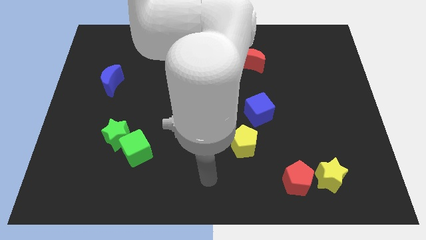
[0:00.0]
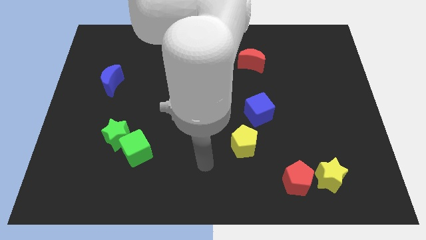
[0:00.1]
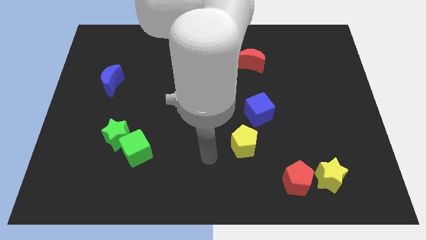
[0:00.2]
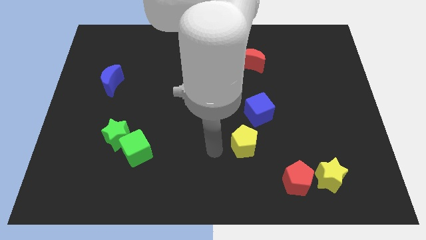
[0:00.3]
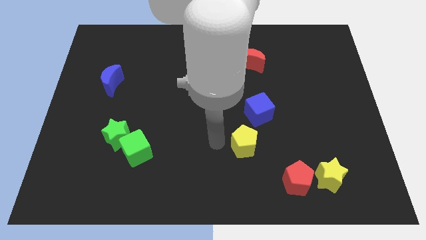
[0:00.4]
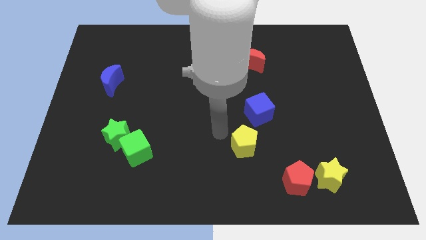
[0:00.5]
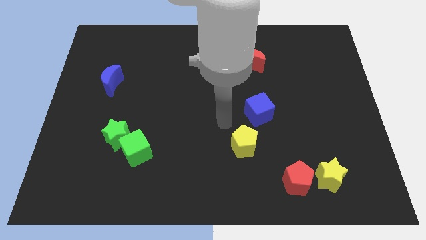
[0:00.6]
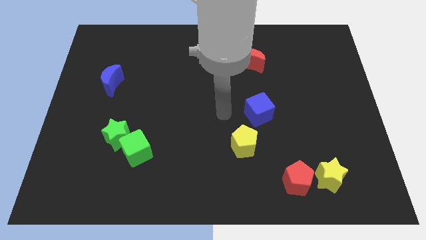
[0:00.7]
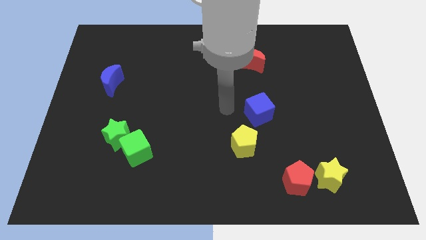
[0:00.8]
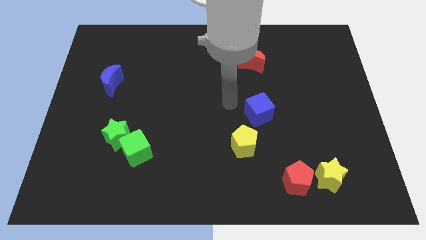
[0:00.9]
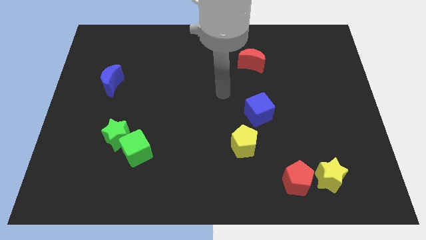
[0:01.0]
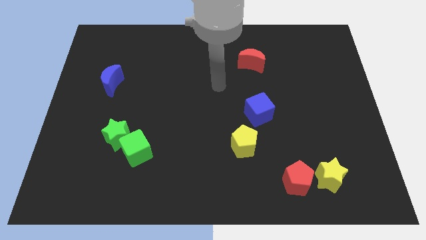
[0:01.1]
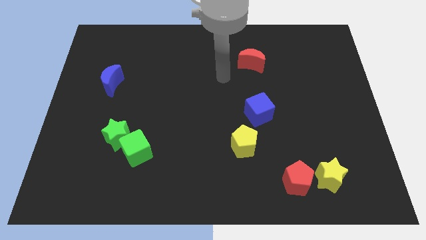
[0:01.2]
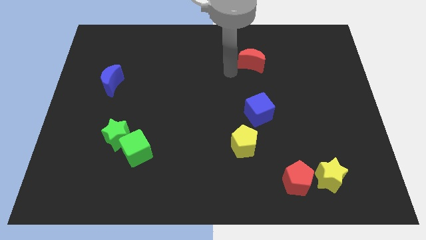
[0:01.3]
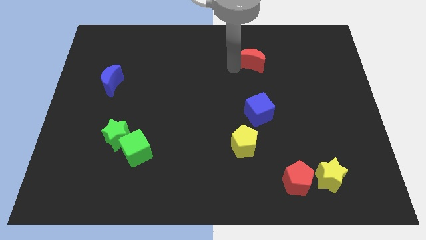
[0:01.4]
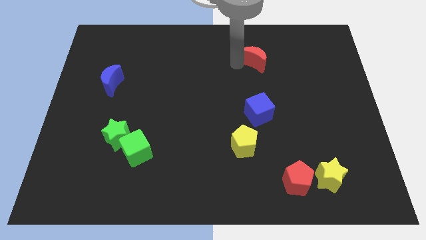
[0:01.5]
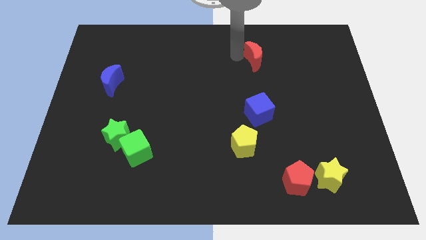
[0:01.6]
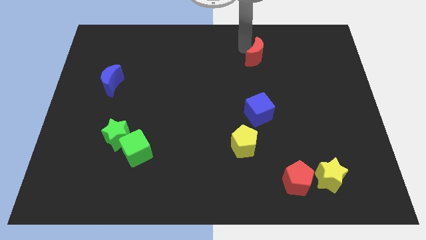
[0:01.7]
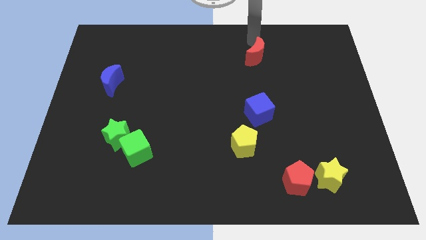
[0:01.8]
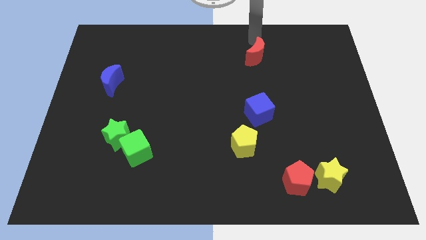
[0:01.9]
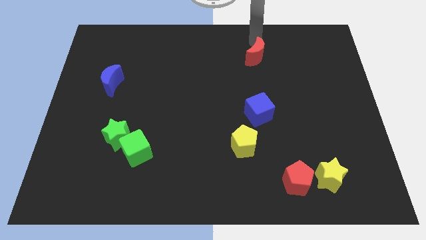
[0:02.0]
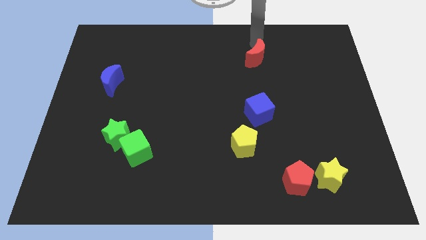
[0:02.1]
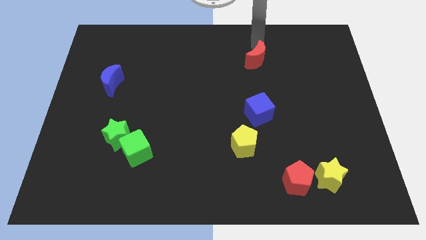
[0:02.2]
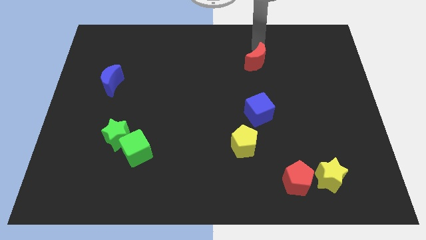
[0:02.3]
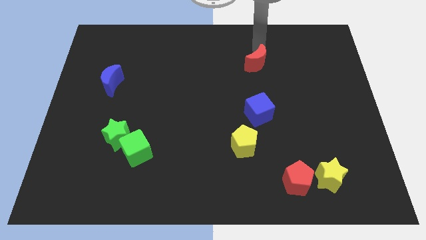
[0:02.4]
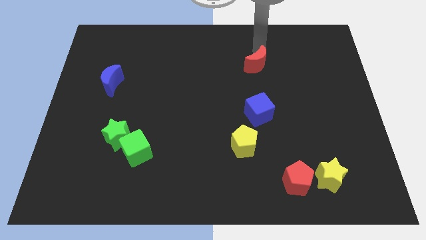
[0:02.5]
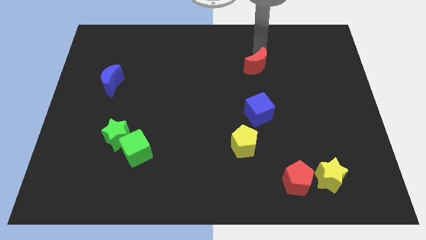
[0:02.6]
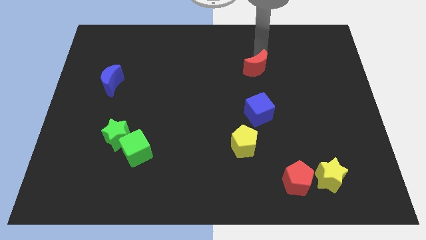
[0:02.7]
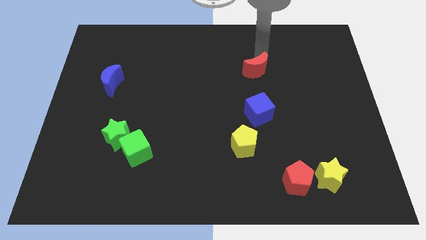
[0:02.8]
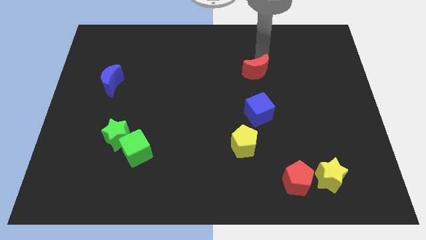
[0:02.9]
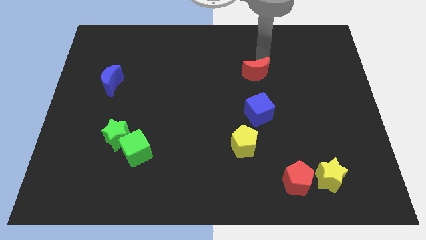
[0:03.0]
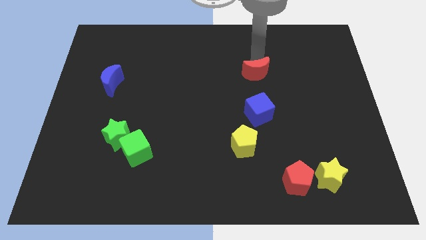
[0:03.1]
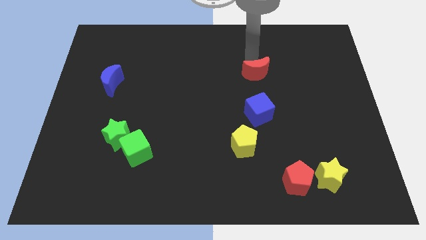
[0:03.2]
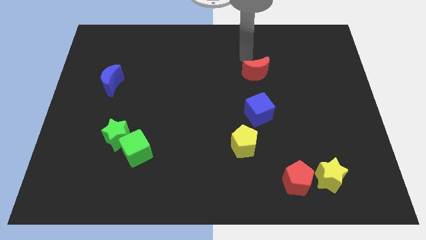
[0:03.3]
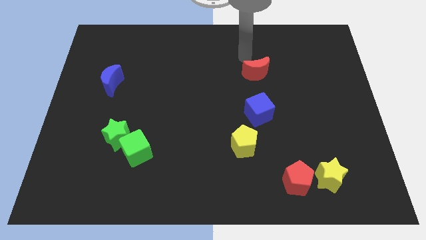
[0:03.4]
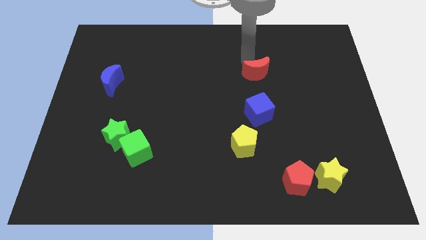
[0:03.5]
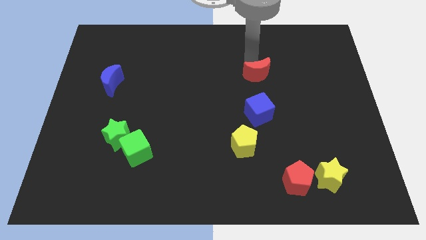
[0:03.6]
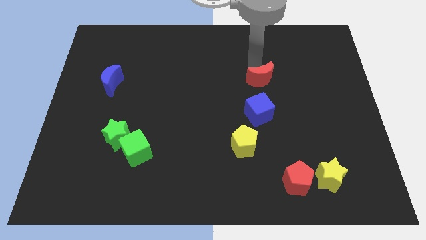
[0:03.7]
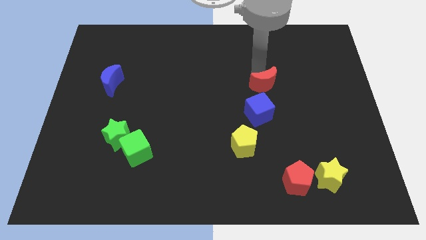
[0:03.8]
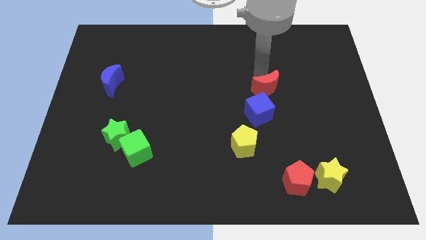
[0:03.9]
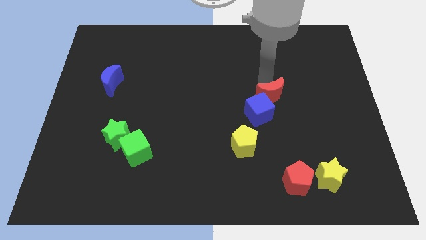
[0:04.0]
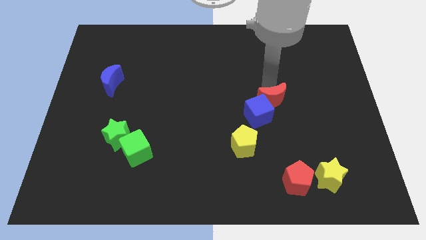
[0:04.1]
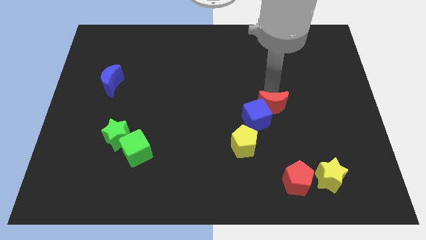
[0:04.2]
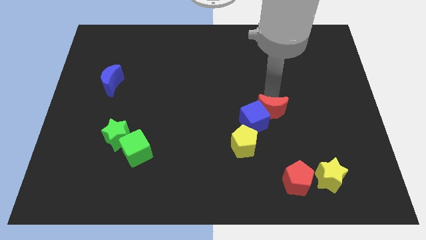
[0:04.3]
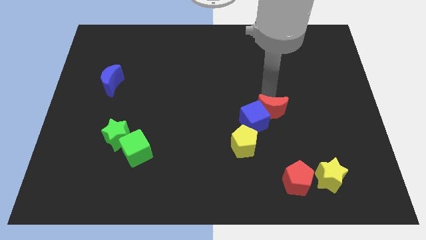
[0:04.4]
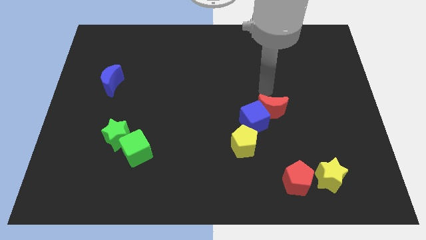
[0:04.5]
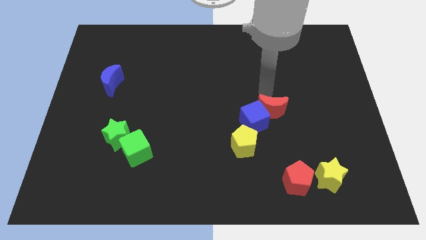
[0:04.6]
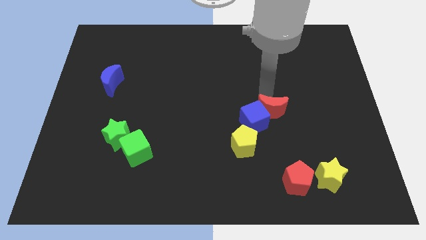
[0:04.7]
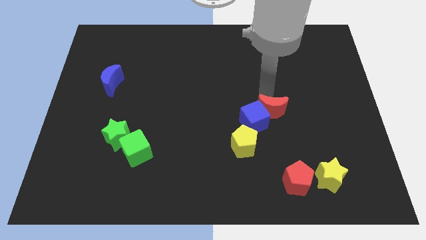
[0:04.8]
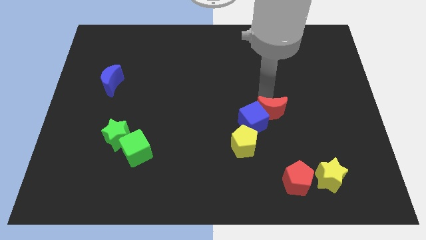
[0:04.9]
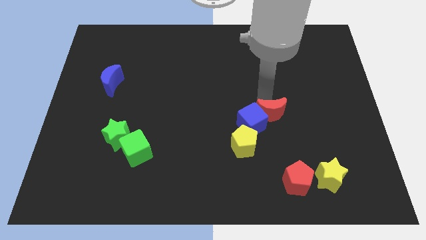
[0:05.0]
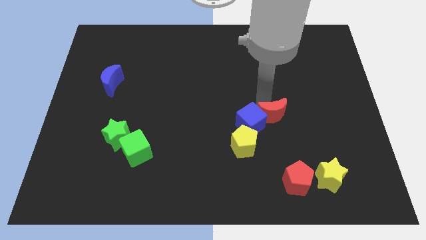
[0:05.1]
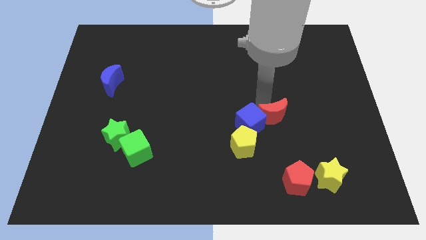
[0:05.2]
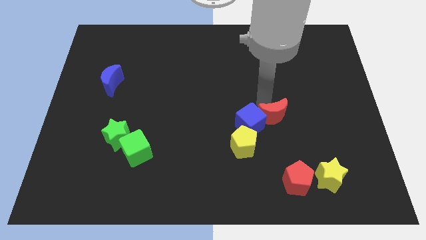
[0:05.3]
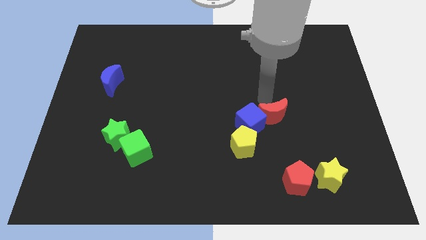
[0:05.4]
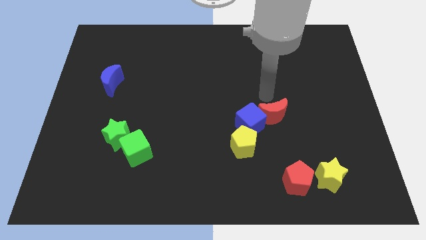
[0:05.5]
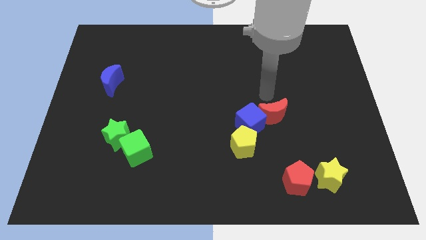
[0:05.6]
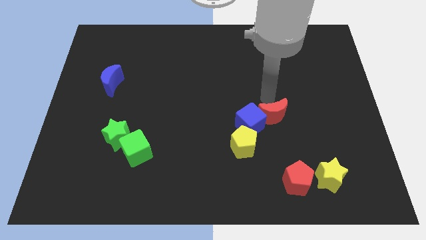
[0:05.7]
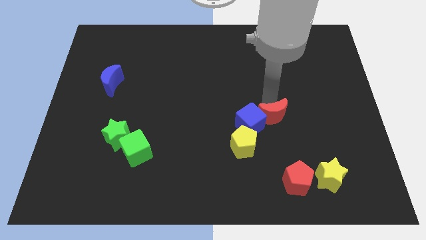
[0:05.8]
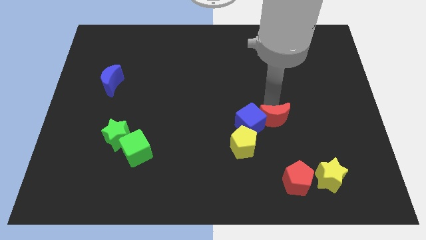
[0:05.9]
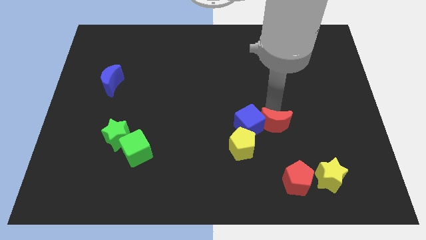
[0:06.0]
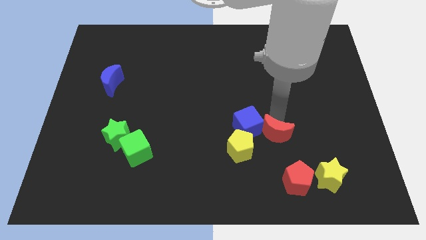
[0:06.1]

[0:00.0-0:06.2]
slide the red moon down

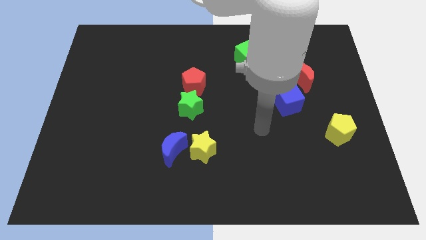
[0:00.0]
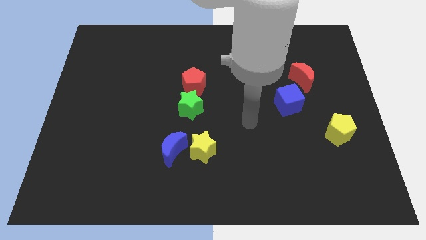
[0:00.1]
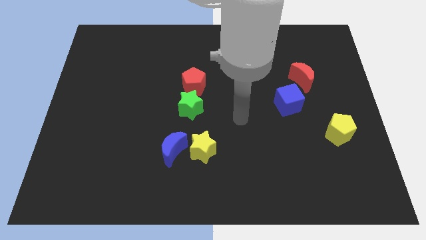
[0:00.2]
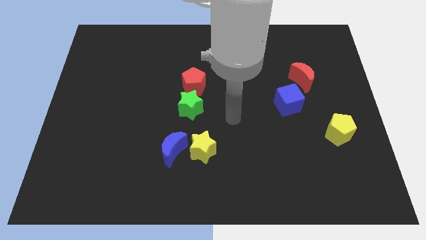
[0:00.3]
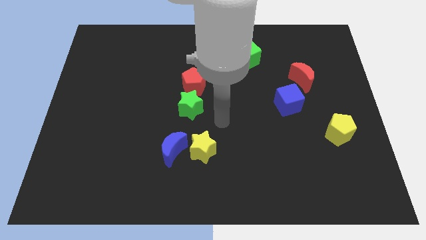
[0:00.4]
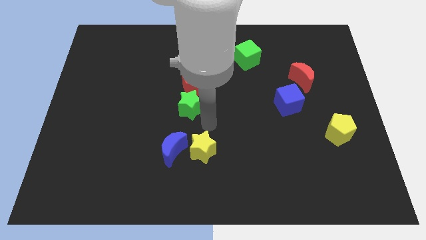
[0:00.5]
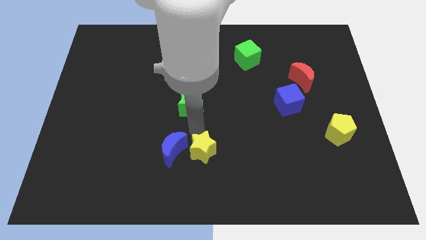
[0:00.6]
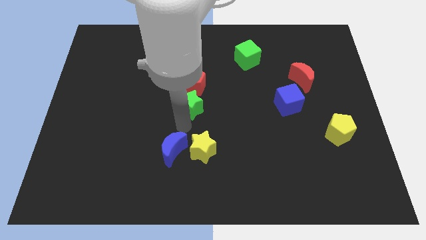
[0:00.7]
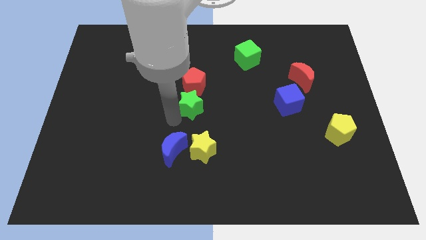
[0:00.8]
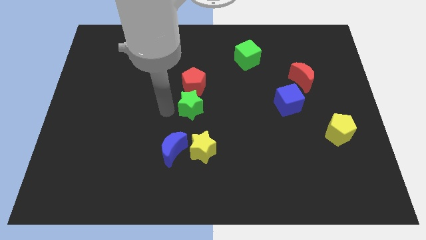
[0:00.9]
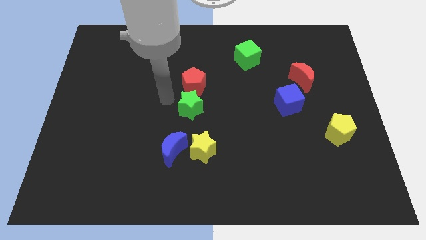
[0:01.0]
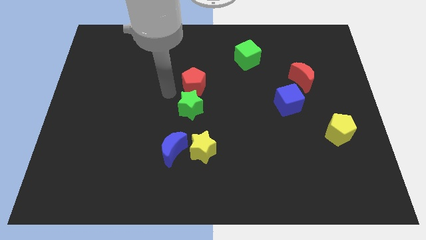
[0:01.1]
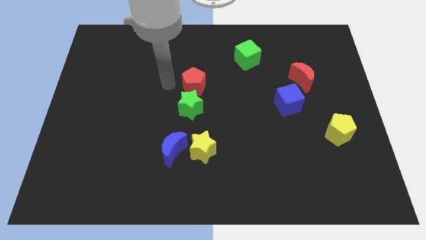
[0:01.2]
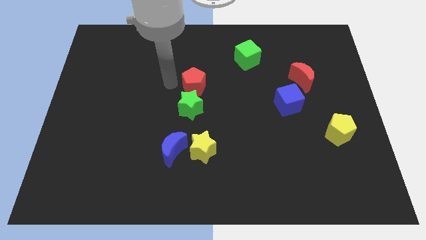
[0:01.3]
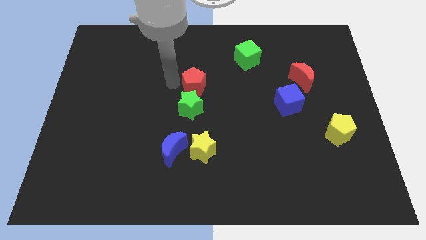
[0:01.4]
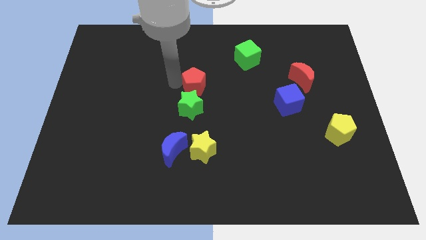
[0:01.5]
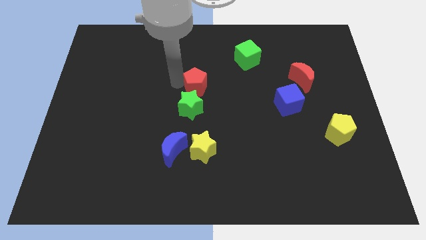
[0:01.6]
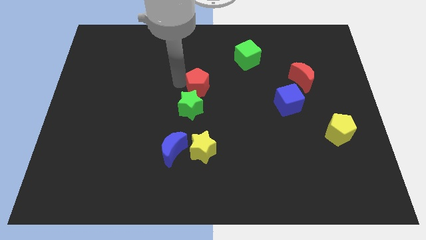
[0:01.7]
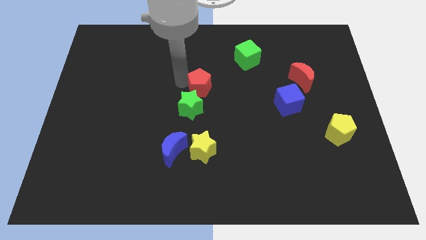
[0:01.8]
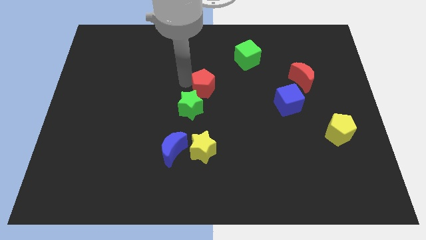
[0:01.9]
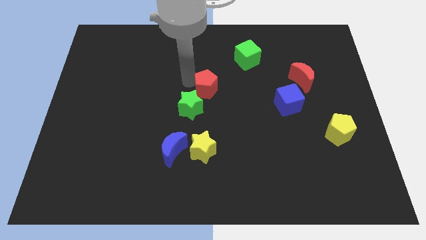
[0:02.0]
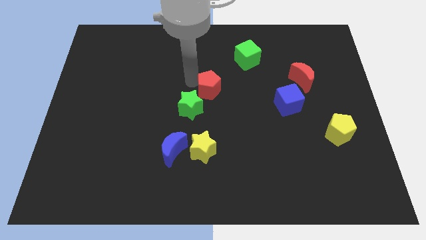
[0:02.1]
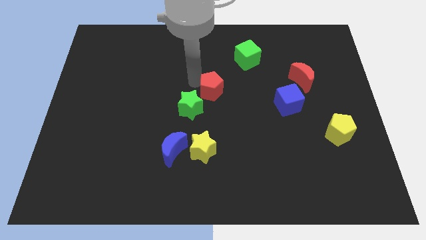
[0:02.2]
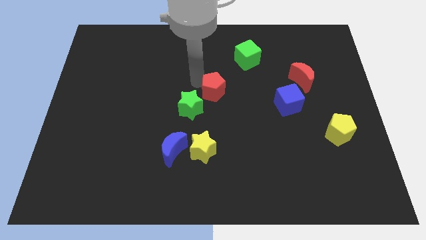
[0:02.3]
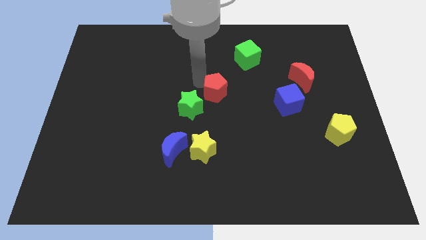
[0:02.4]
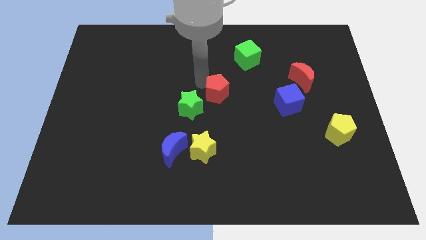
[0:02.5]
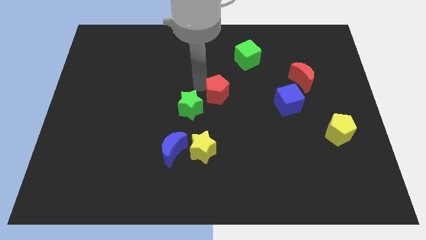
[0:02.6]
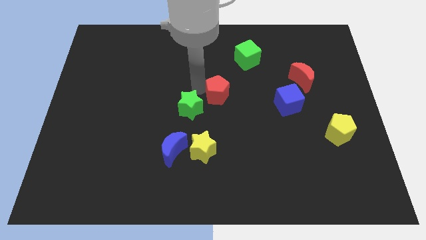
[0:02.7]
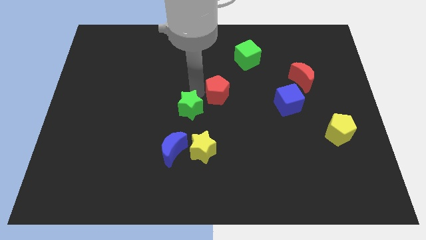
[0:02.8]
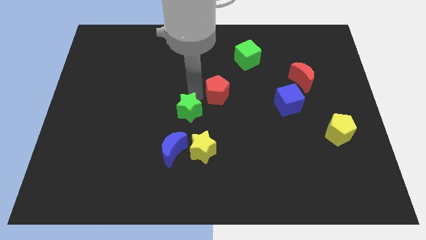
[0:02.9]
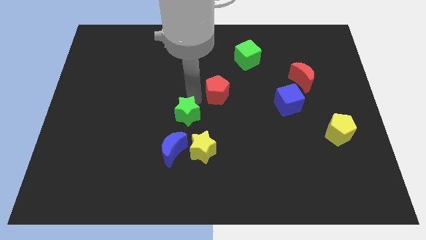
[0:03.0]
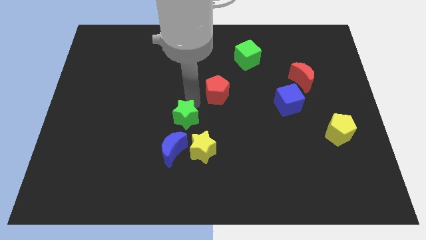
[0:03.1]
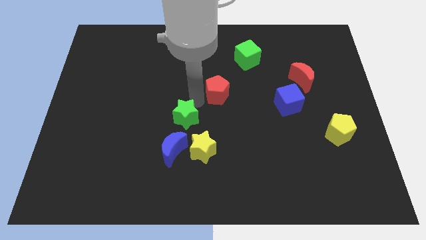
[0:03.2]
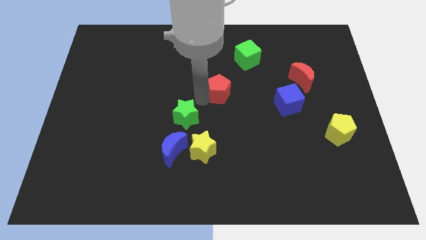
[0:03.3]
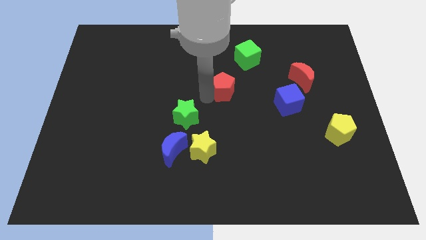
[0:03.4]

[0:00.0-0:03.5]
slide the red pentagon right slightly
